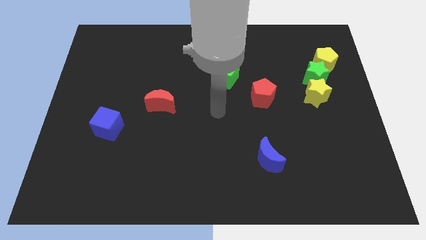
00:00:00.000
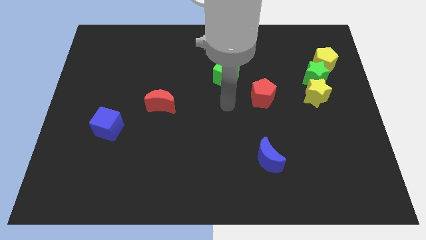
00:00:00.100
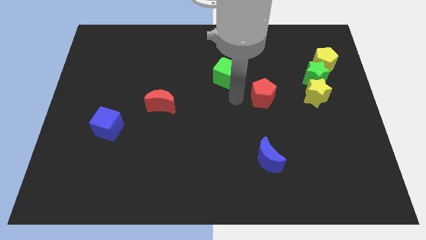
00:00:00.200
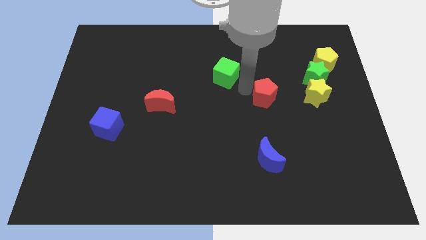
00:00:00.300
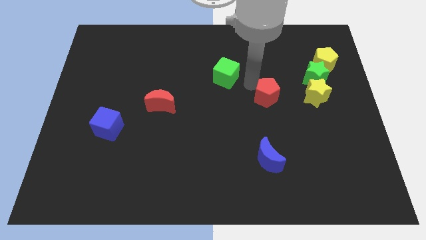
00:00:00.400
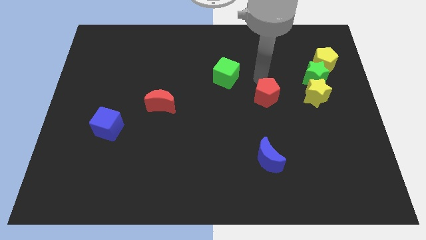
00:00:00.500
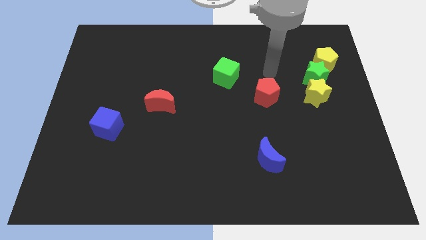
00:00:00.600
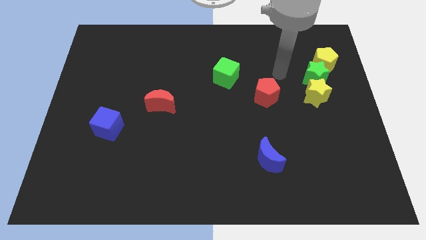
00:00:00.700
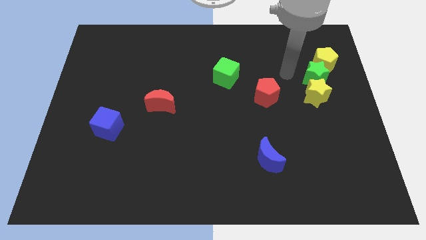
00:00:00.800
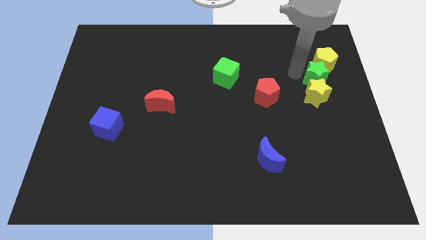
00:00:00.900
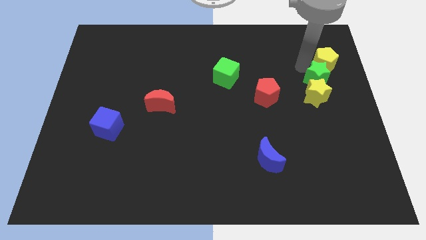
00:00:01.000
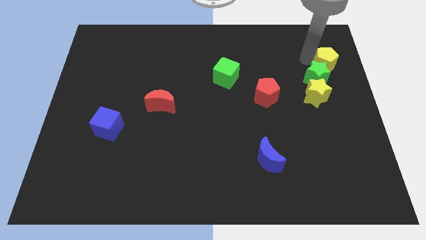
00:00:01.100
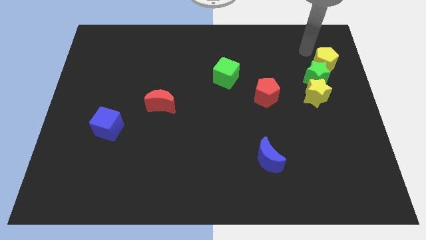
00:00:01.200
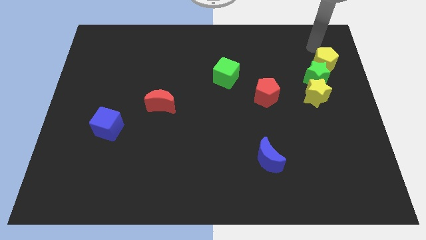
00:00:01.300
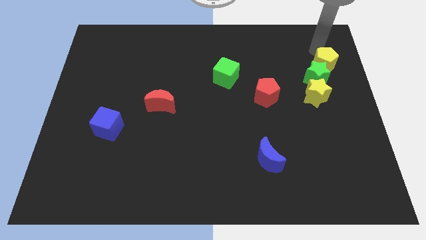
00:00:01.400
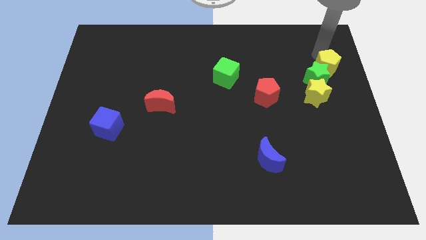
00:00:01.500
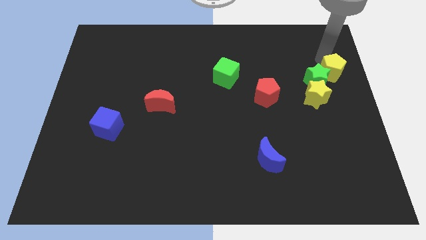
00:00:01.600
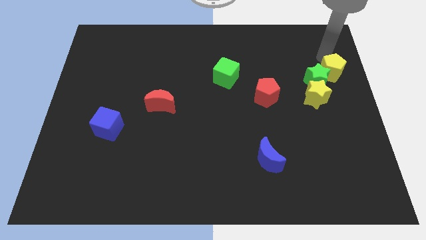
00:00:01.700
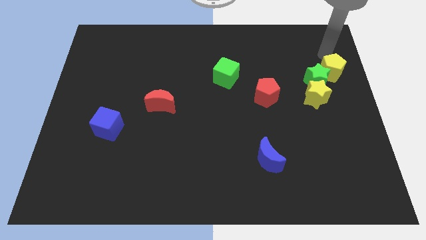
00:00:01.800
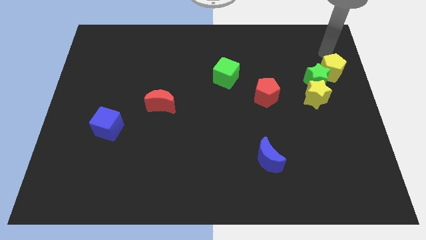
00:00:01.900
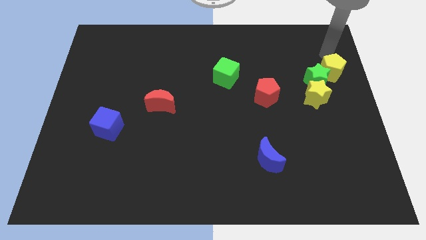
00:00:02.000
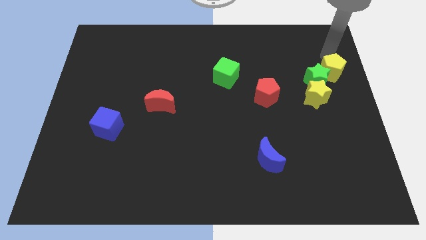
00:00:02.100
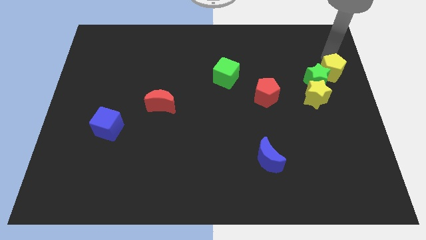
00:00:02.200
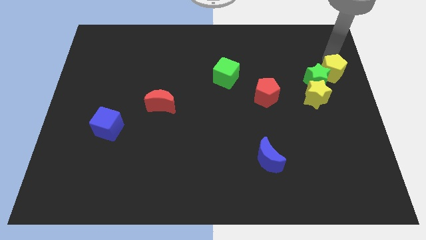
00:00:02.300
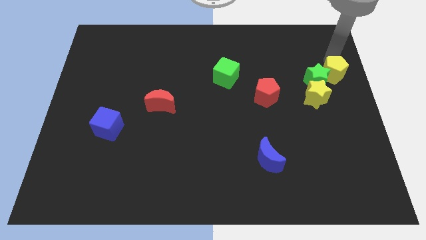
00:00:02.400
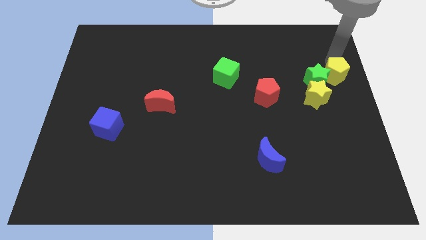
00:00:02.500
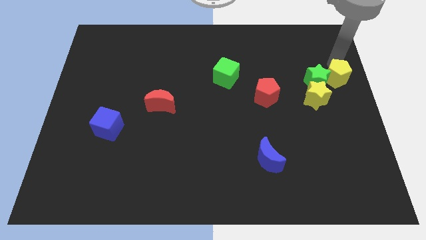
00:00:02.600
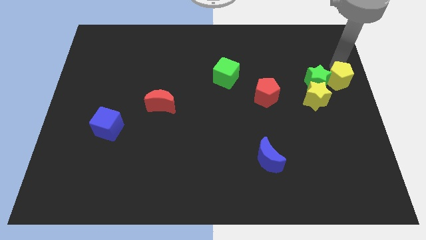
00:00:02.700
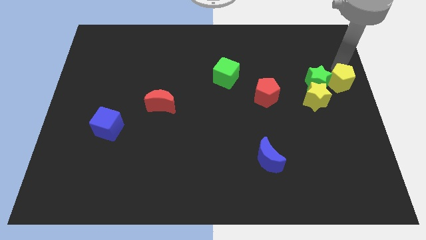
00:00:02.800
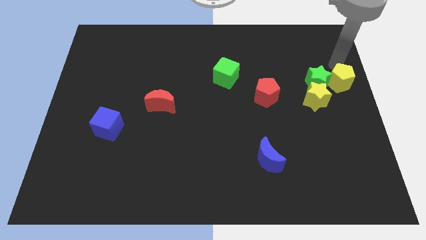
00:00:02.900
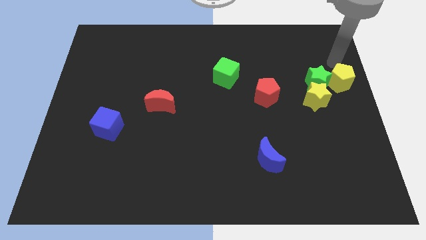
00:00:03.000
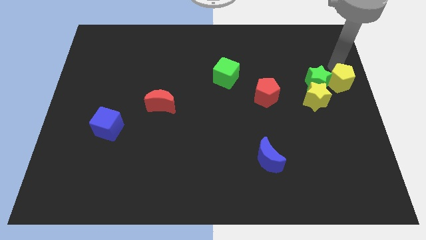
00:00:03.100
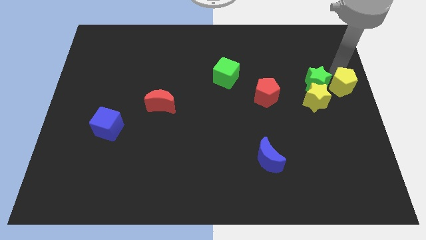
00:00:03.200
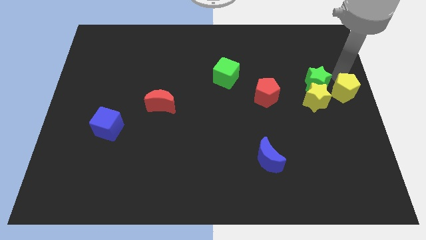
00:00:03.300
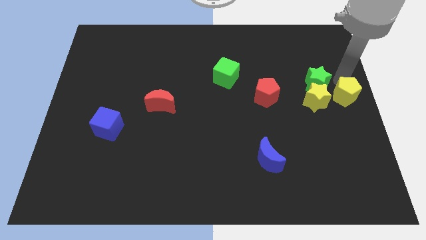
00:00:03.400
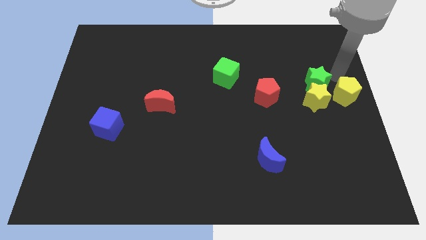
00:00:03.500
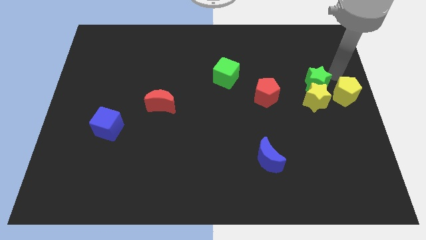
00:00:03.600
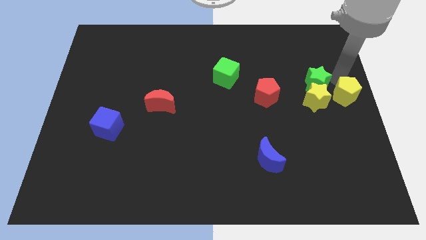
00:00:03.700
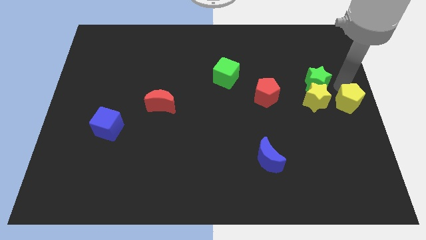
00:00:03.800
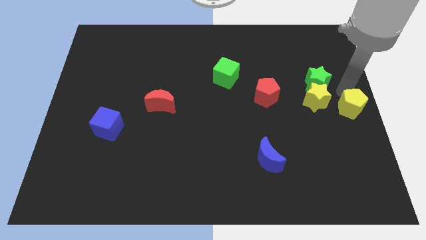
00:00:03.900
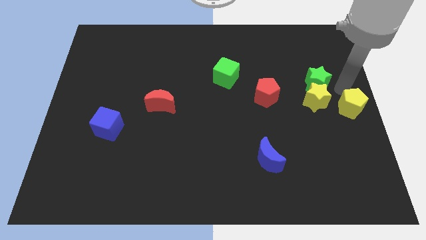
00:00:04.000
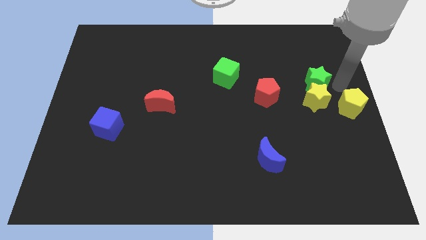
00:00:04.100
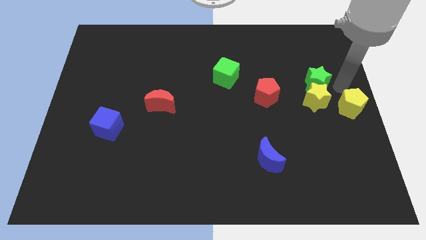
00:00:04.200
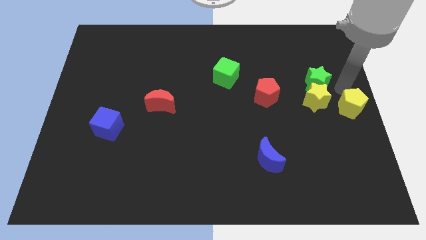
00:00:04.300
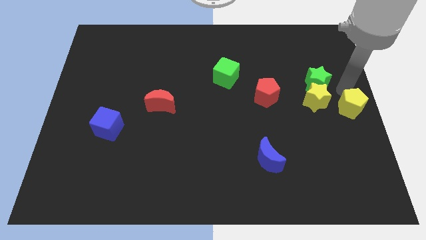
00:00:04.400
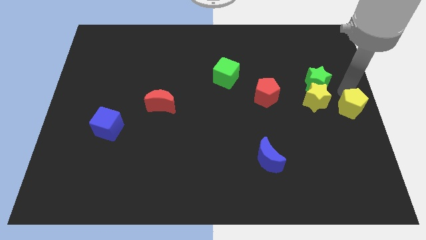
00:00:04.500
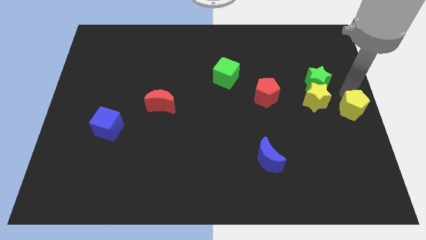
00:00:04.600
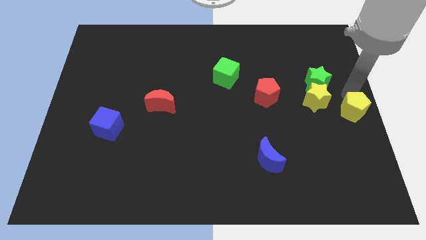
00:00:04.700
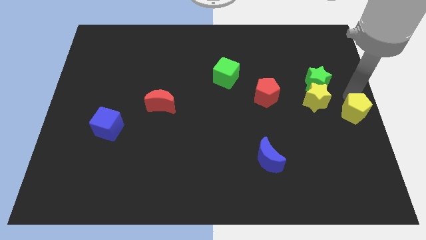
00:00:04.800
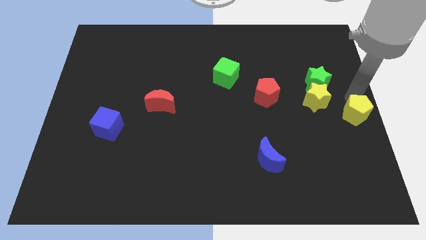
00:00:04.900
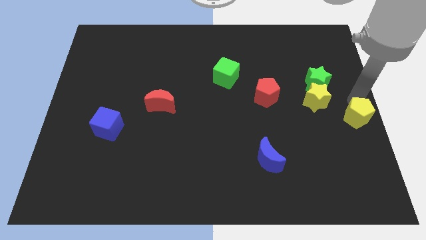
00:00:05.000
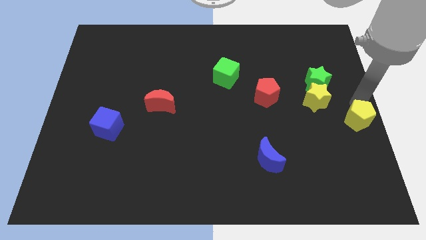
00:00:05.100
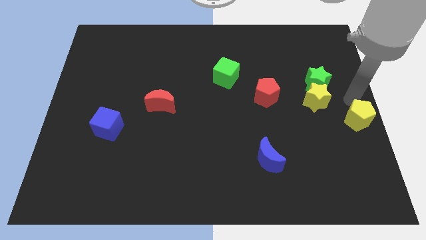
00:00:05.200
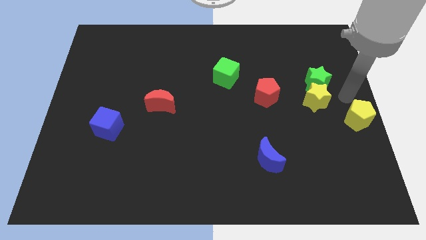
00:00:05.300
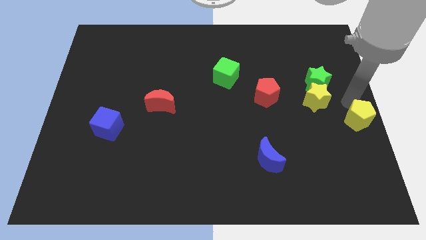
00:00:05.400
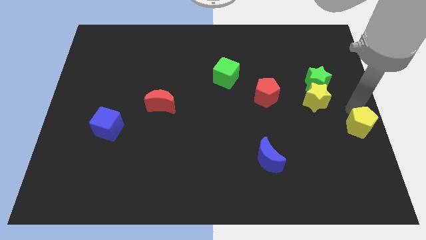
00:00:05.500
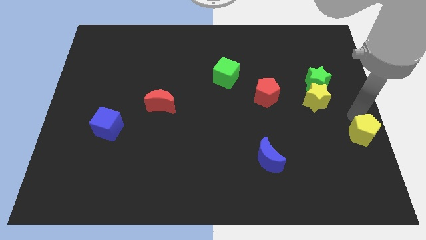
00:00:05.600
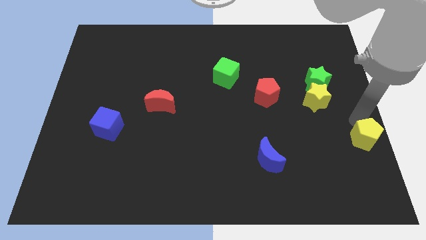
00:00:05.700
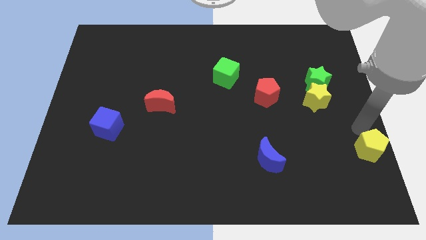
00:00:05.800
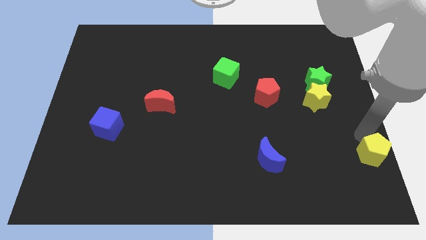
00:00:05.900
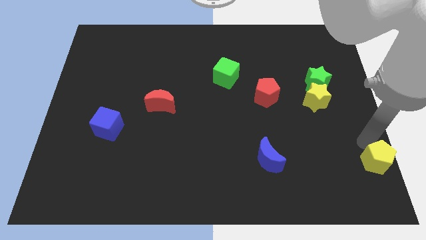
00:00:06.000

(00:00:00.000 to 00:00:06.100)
move the yellow pentagon to the lower right corner
